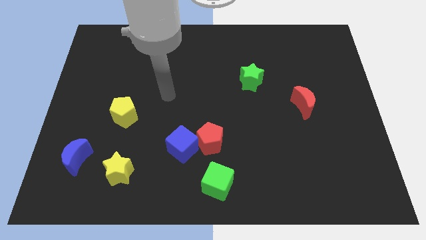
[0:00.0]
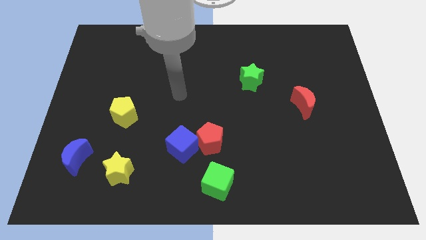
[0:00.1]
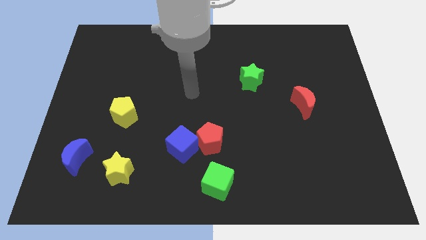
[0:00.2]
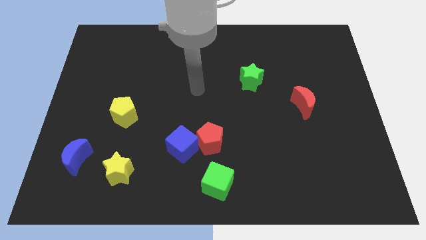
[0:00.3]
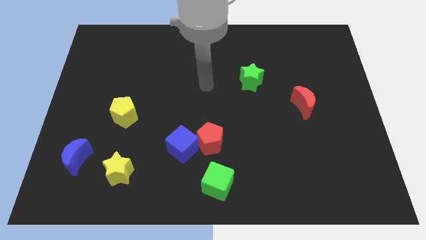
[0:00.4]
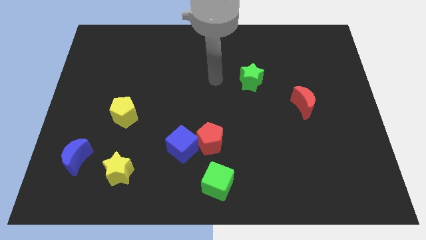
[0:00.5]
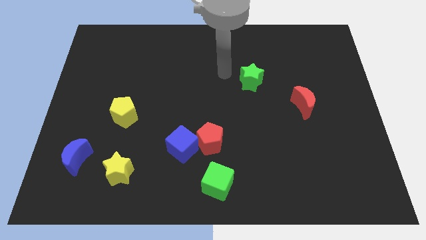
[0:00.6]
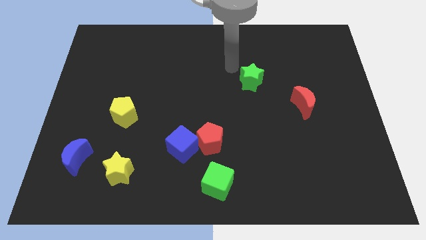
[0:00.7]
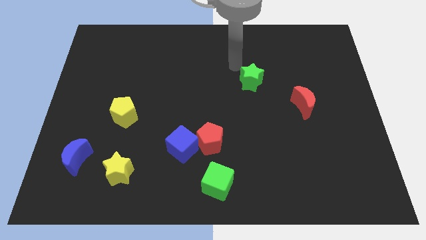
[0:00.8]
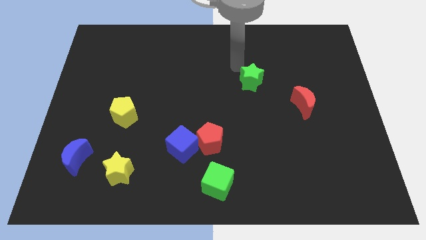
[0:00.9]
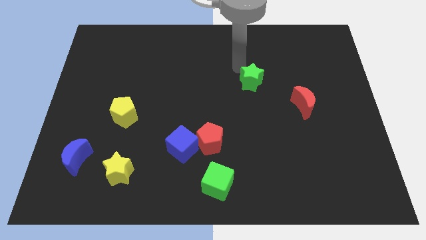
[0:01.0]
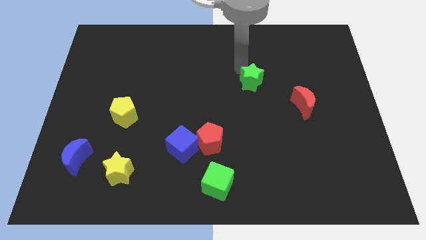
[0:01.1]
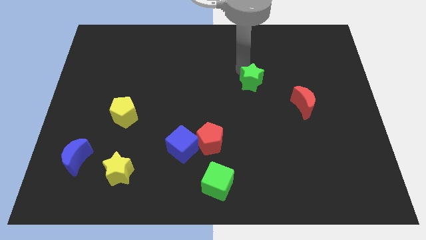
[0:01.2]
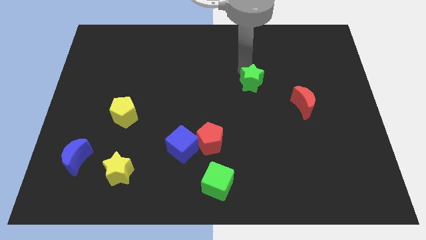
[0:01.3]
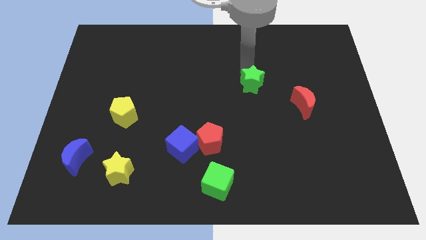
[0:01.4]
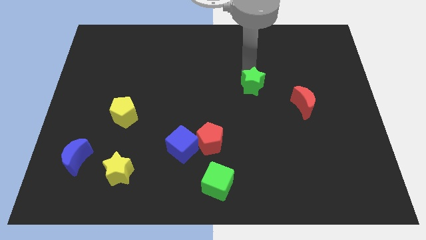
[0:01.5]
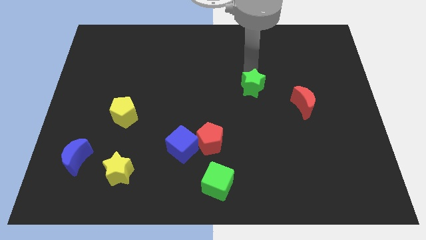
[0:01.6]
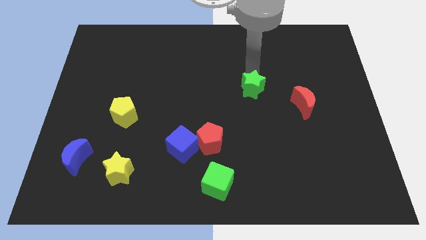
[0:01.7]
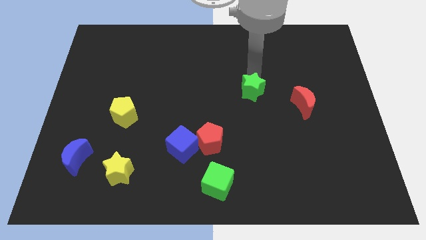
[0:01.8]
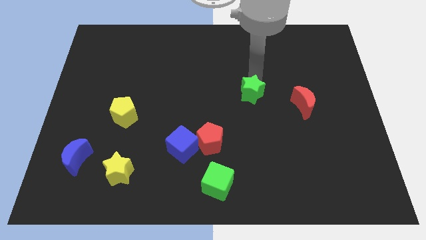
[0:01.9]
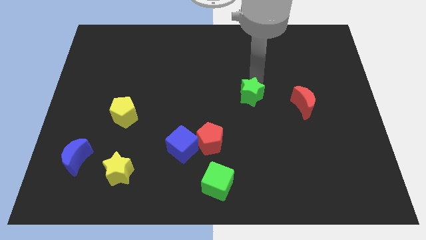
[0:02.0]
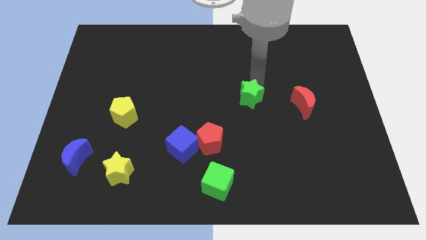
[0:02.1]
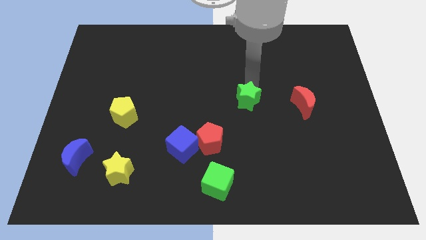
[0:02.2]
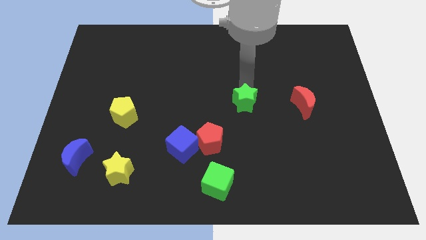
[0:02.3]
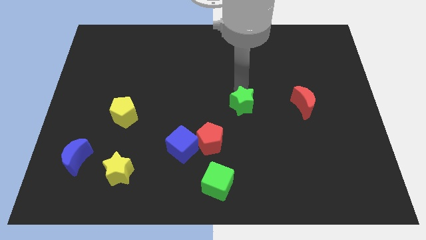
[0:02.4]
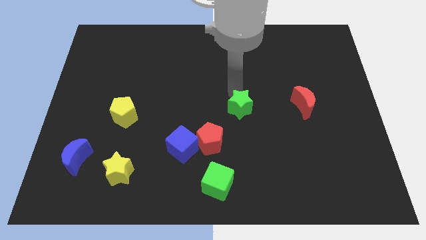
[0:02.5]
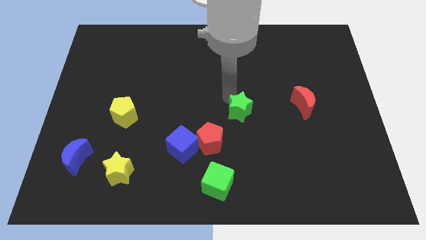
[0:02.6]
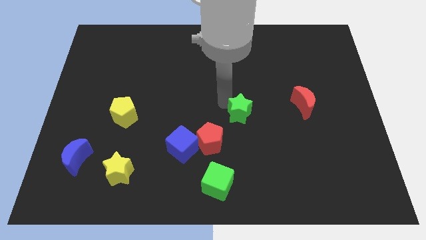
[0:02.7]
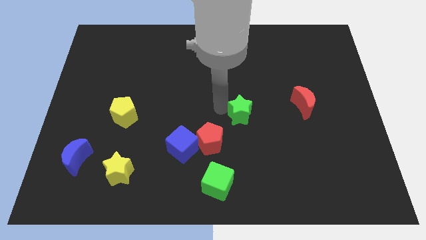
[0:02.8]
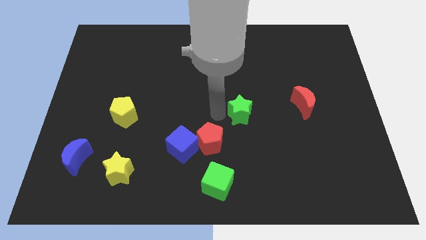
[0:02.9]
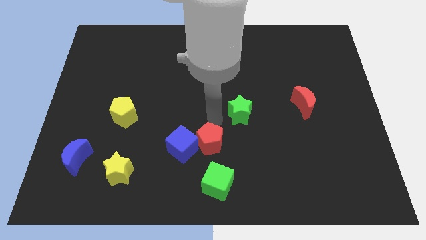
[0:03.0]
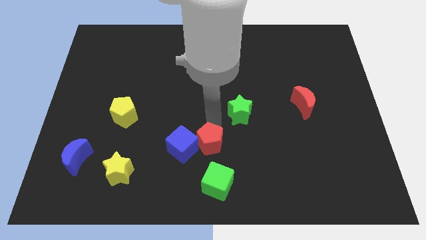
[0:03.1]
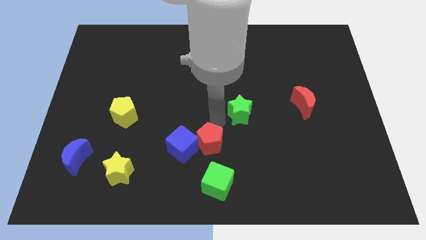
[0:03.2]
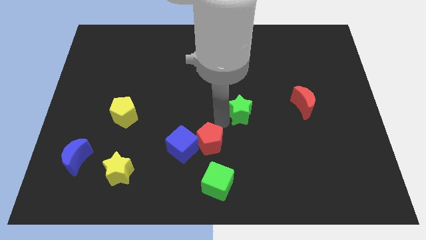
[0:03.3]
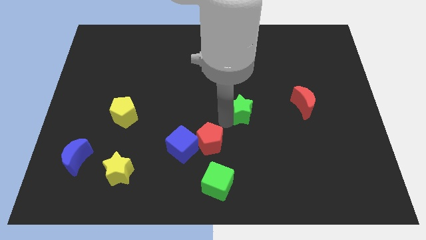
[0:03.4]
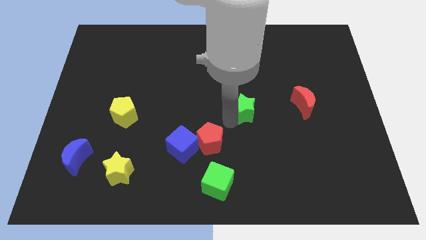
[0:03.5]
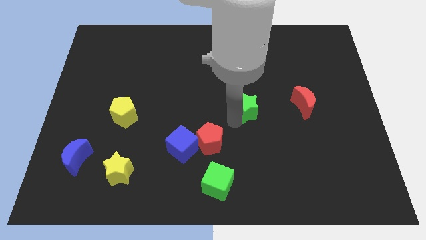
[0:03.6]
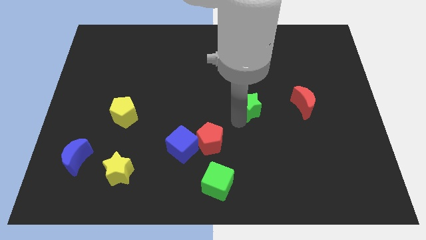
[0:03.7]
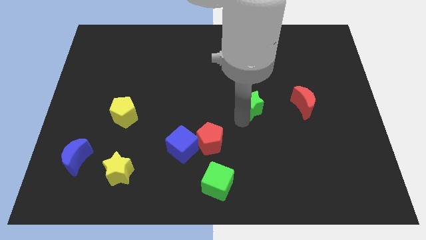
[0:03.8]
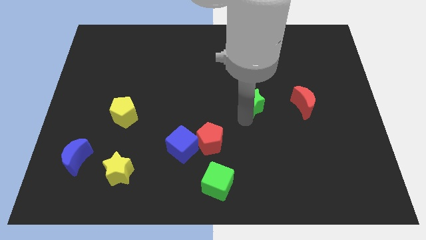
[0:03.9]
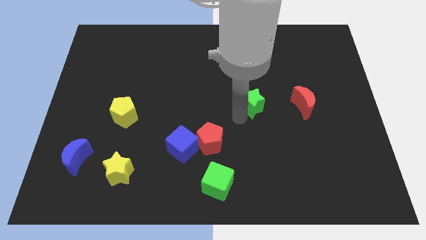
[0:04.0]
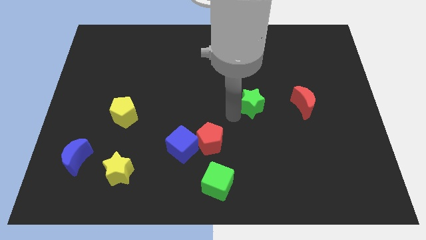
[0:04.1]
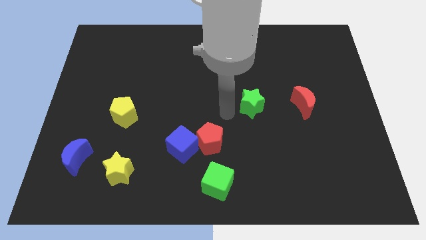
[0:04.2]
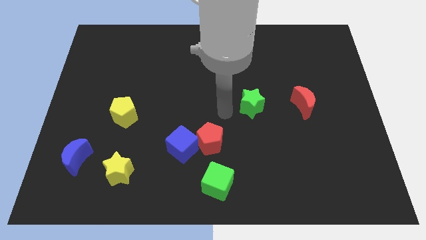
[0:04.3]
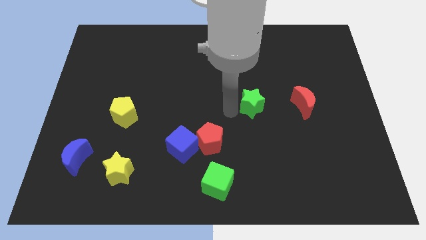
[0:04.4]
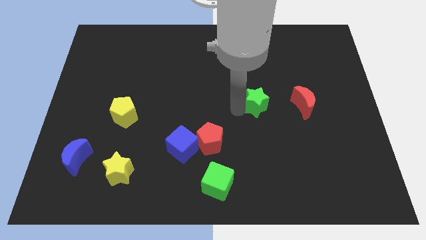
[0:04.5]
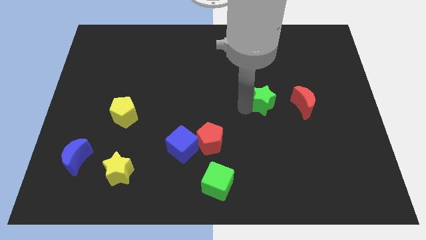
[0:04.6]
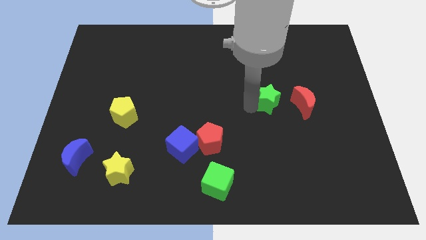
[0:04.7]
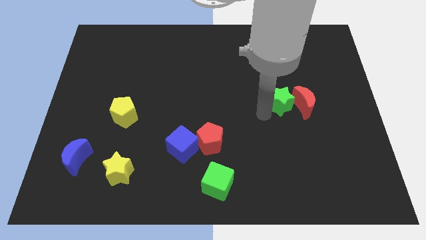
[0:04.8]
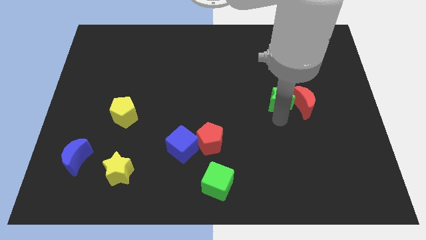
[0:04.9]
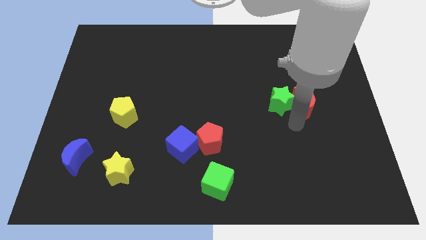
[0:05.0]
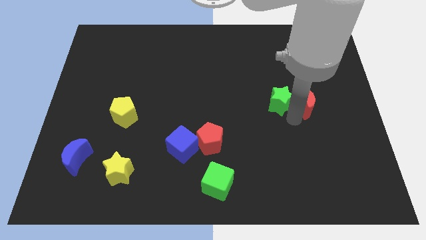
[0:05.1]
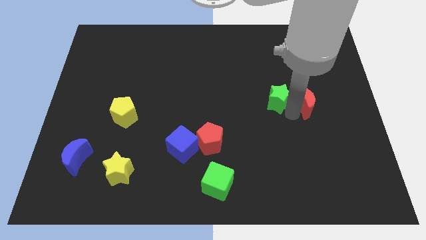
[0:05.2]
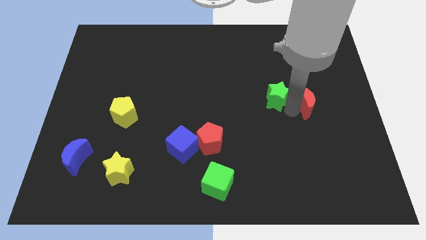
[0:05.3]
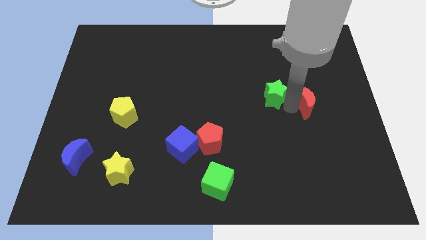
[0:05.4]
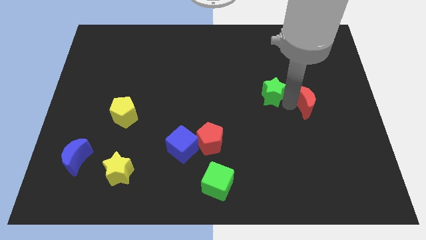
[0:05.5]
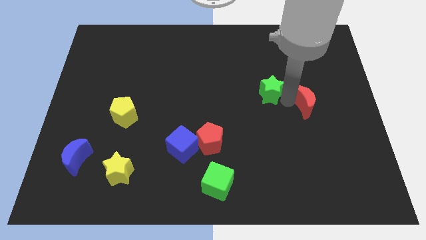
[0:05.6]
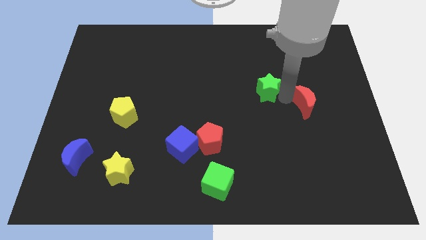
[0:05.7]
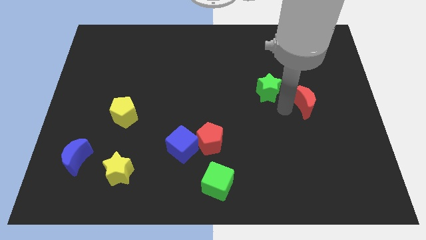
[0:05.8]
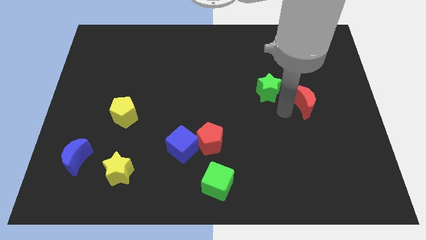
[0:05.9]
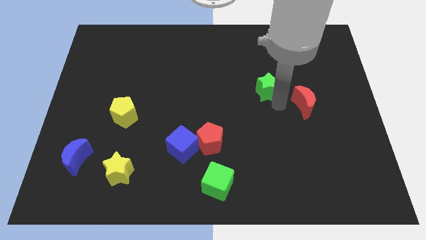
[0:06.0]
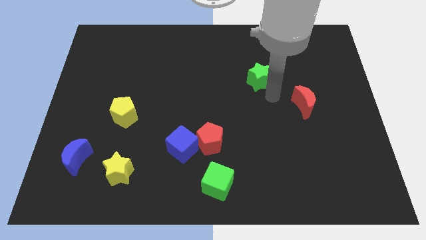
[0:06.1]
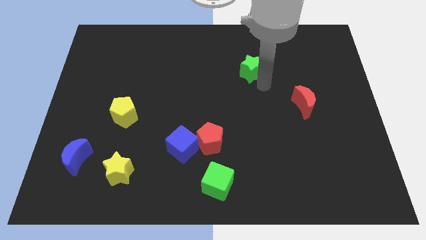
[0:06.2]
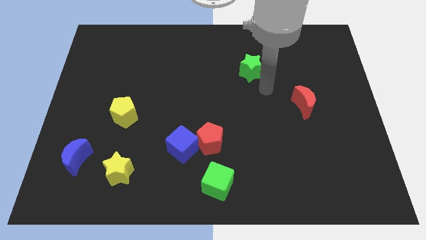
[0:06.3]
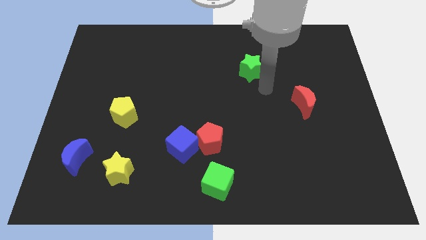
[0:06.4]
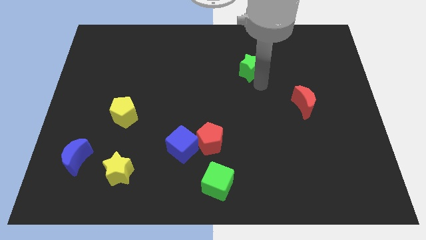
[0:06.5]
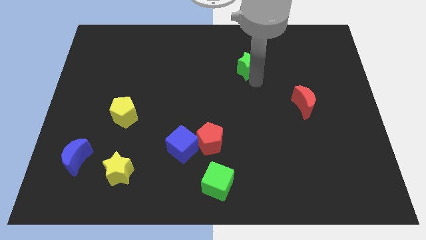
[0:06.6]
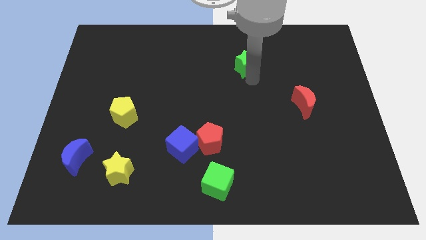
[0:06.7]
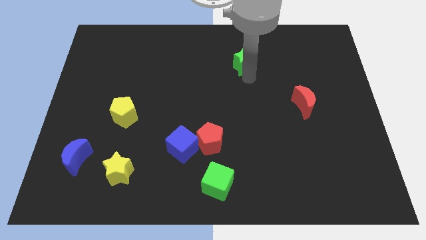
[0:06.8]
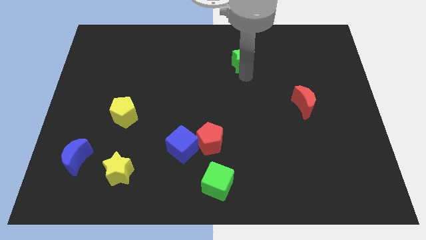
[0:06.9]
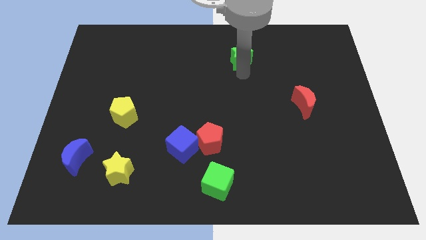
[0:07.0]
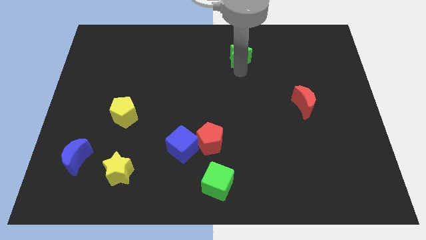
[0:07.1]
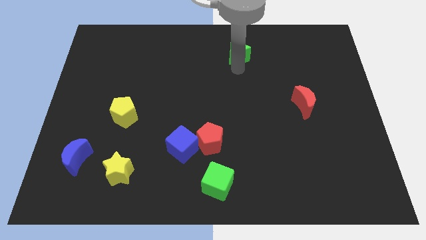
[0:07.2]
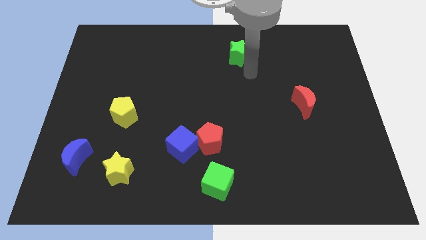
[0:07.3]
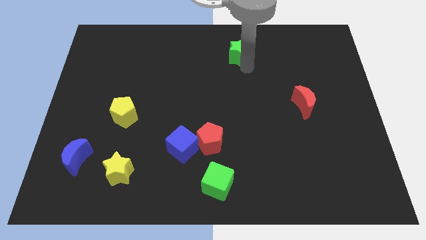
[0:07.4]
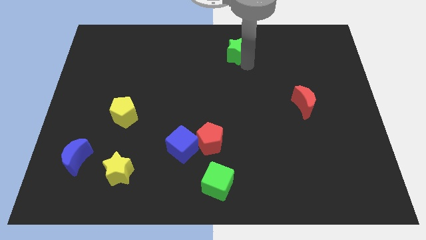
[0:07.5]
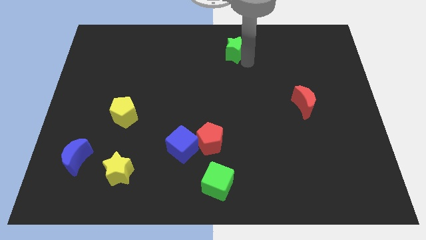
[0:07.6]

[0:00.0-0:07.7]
move the green star to the top side
